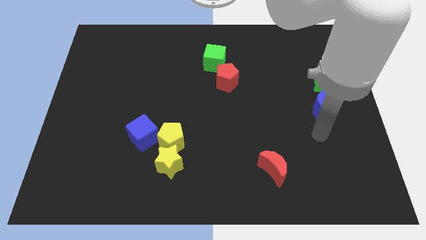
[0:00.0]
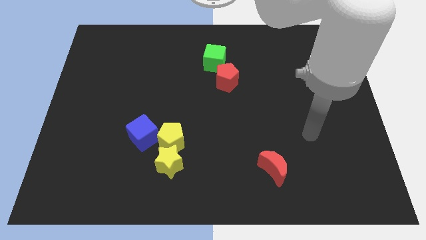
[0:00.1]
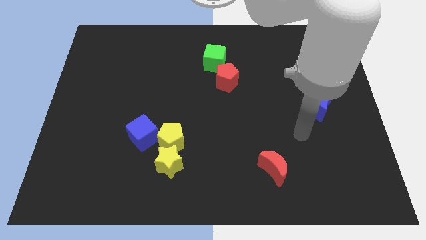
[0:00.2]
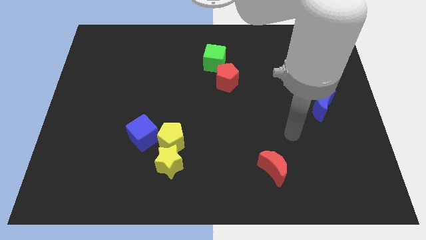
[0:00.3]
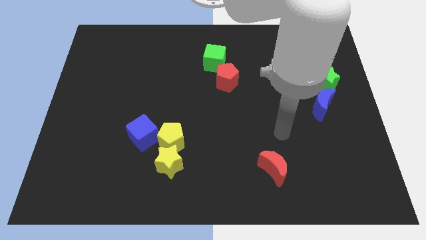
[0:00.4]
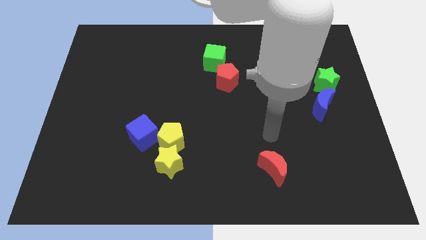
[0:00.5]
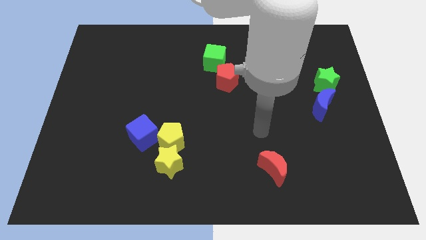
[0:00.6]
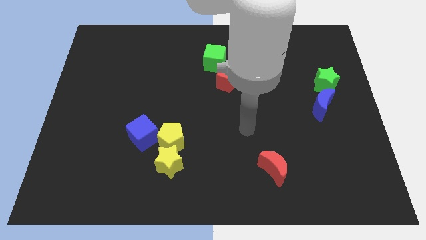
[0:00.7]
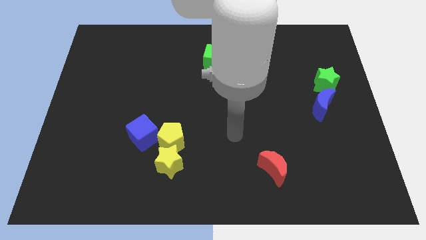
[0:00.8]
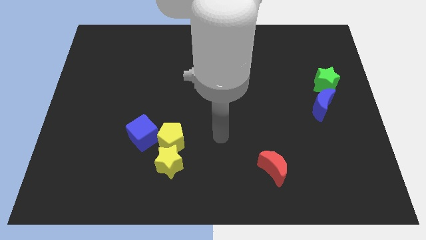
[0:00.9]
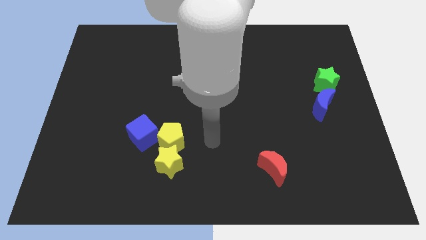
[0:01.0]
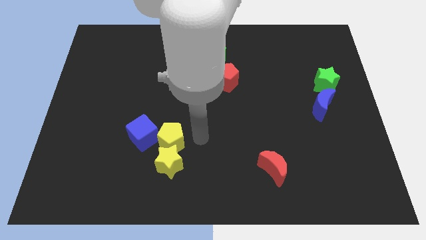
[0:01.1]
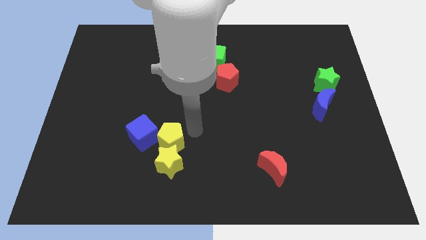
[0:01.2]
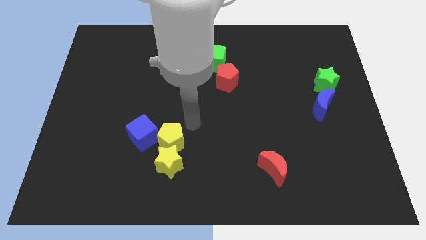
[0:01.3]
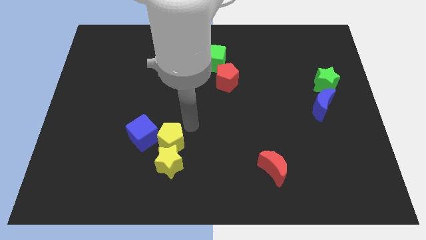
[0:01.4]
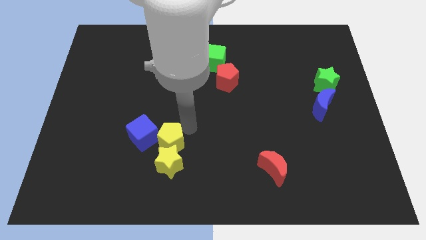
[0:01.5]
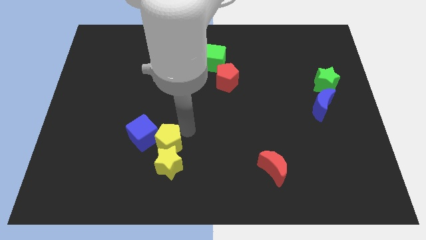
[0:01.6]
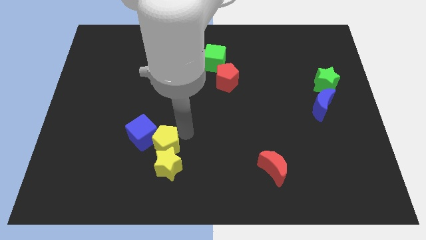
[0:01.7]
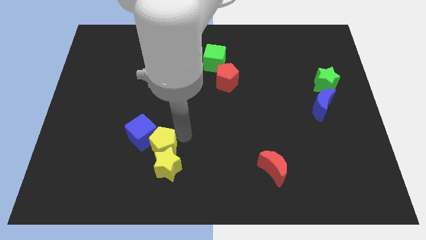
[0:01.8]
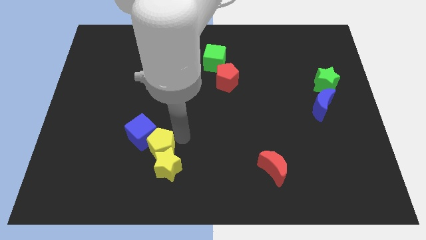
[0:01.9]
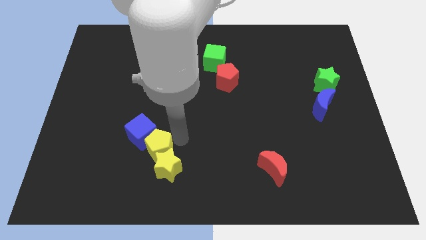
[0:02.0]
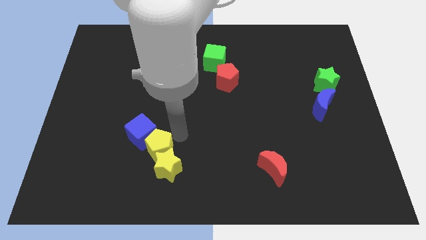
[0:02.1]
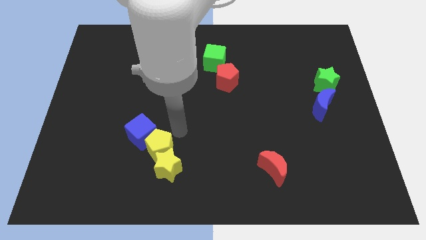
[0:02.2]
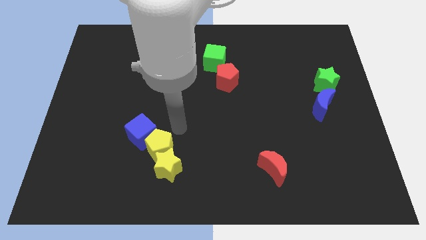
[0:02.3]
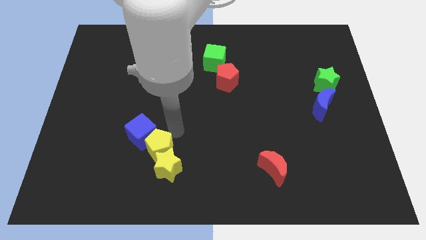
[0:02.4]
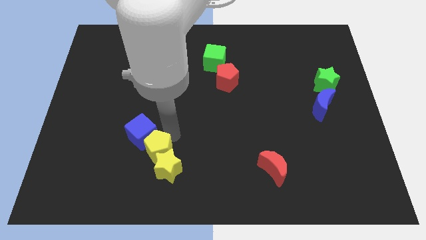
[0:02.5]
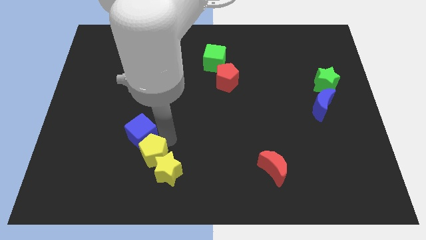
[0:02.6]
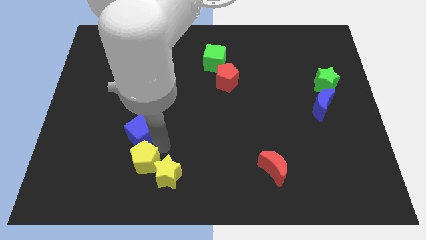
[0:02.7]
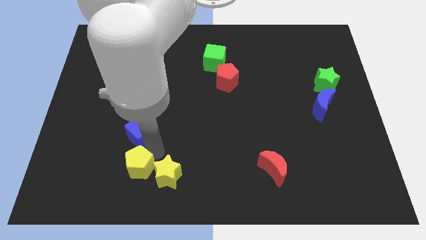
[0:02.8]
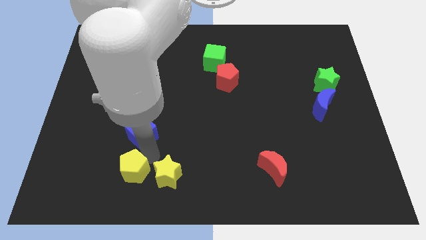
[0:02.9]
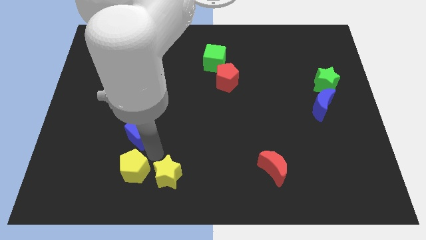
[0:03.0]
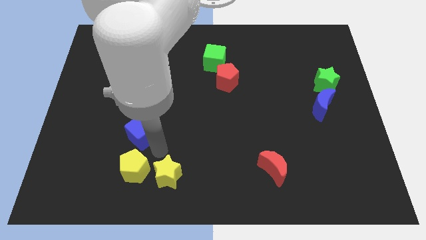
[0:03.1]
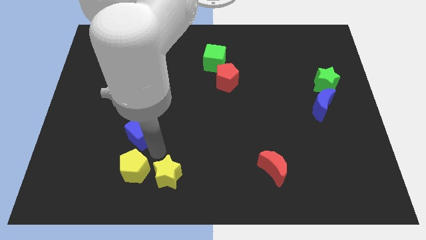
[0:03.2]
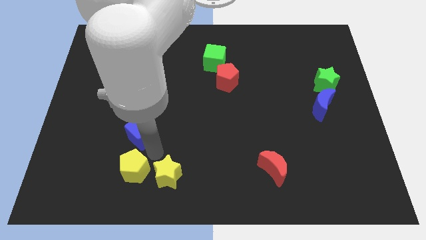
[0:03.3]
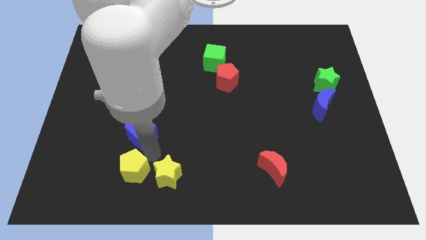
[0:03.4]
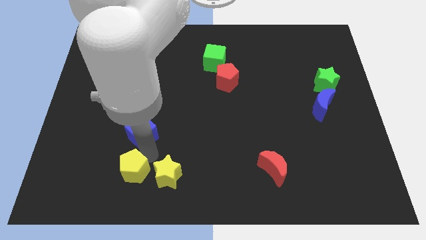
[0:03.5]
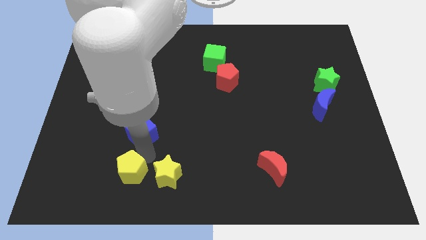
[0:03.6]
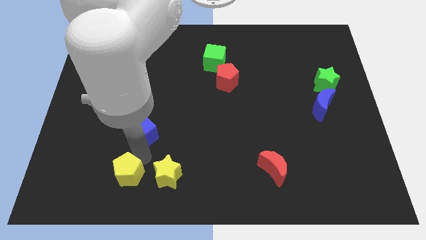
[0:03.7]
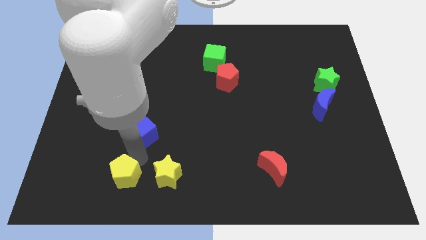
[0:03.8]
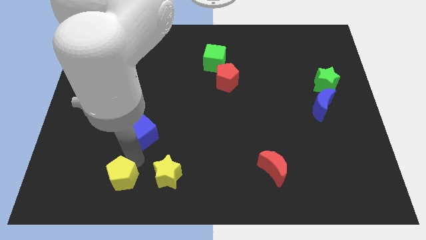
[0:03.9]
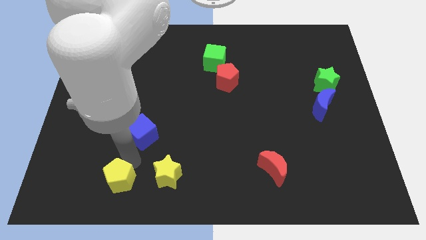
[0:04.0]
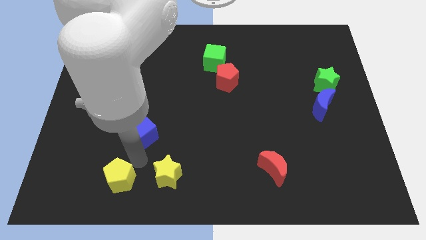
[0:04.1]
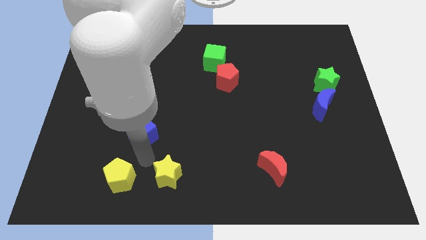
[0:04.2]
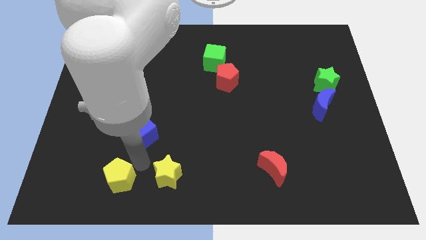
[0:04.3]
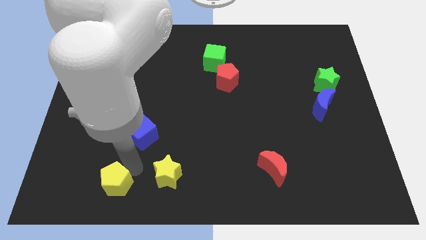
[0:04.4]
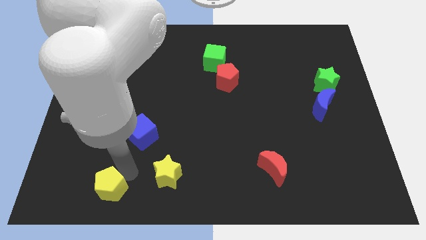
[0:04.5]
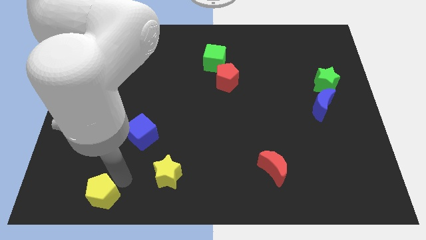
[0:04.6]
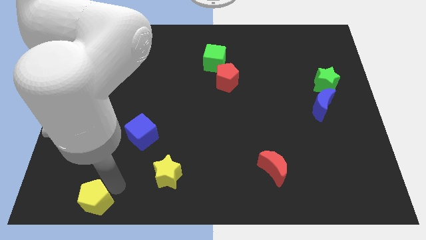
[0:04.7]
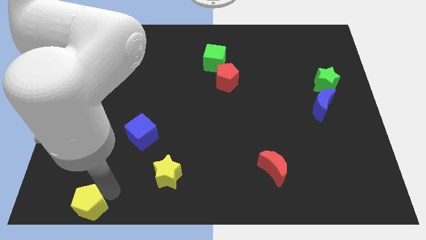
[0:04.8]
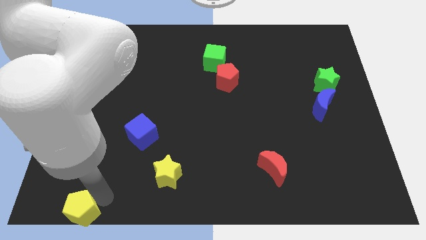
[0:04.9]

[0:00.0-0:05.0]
put the yellow pentagon to the bottom left of the board

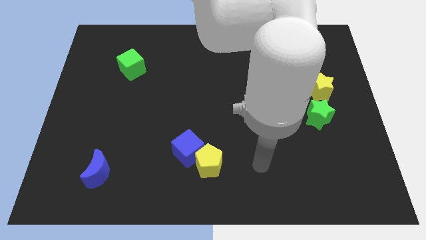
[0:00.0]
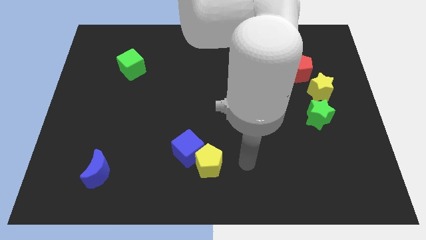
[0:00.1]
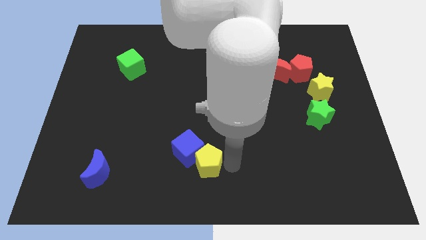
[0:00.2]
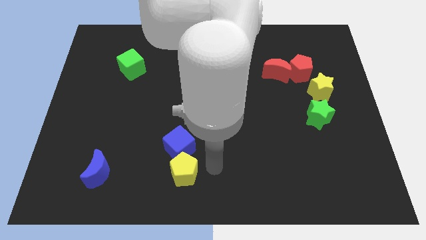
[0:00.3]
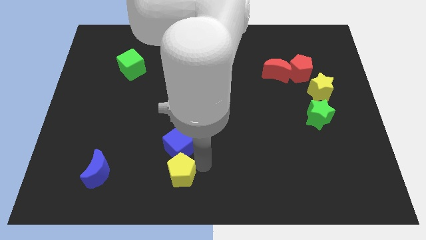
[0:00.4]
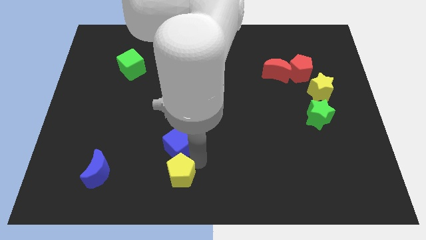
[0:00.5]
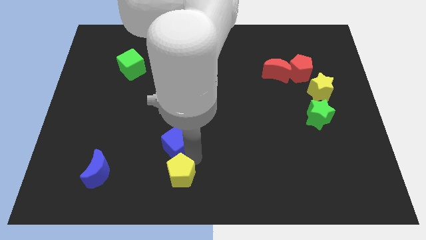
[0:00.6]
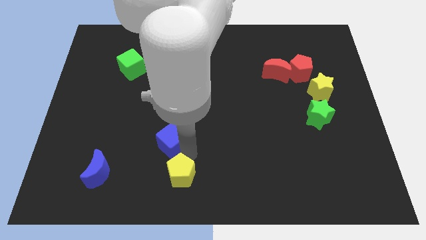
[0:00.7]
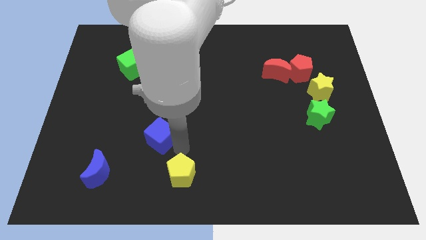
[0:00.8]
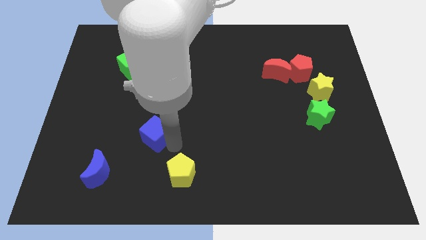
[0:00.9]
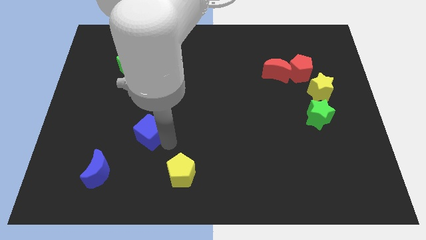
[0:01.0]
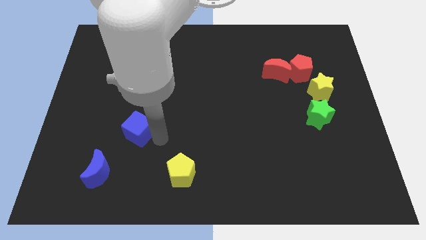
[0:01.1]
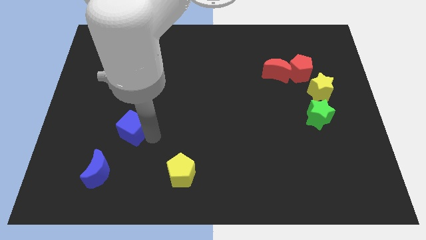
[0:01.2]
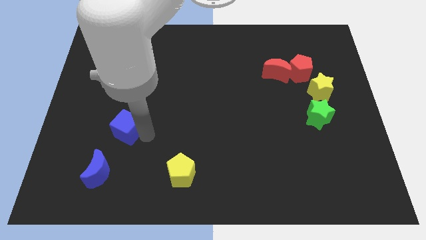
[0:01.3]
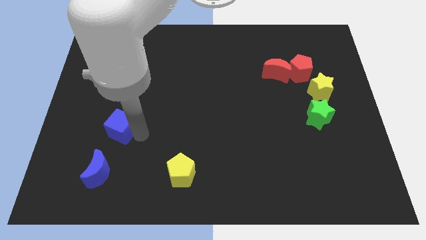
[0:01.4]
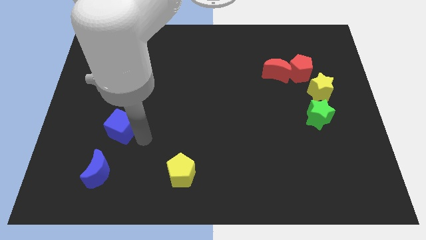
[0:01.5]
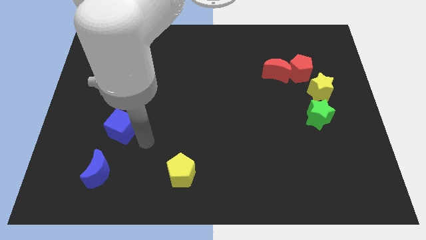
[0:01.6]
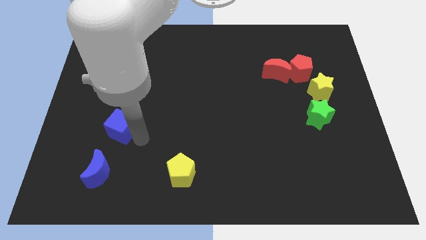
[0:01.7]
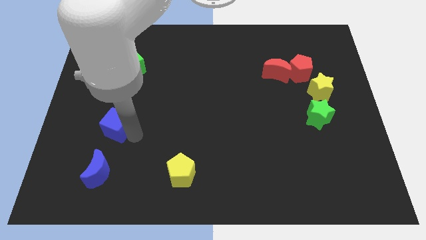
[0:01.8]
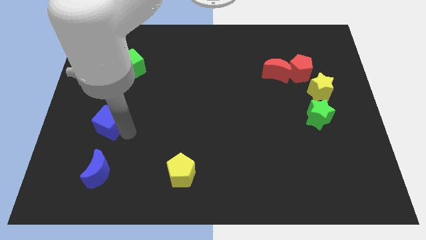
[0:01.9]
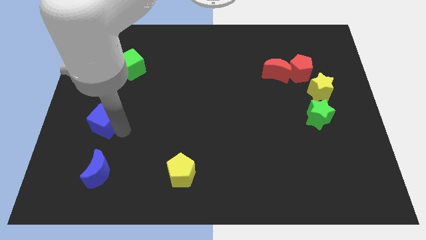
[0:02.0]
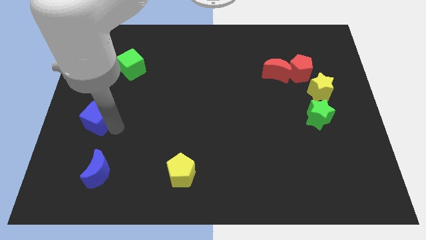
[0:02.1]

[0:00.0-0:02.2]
slide the blue cube to the left side
